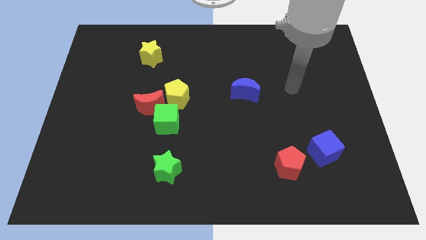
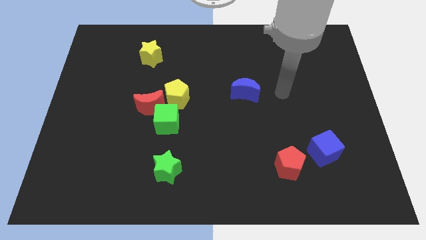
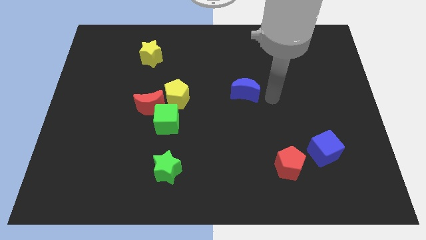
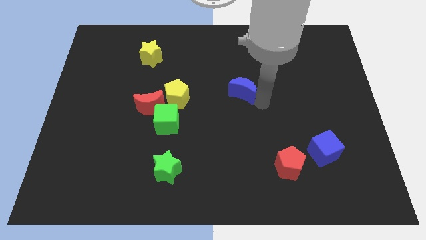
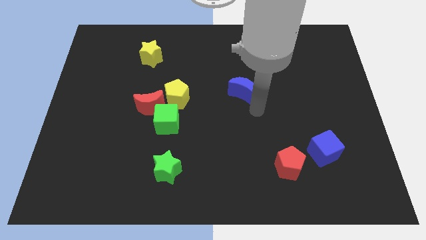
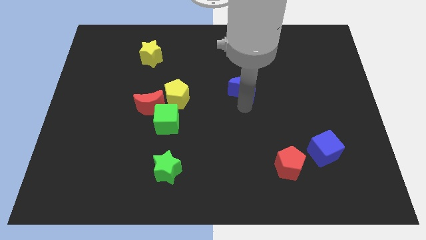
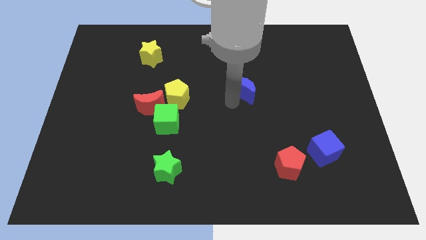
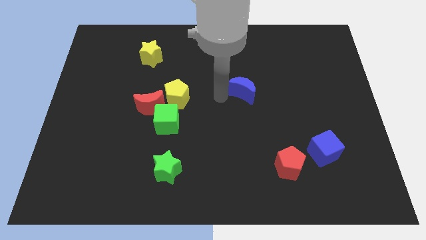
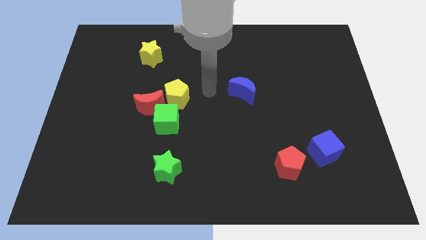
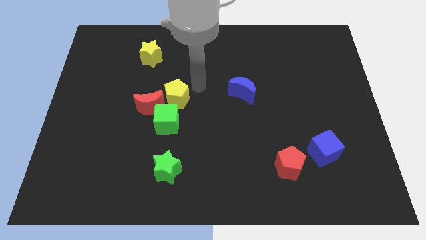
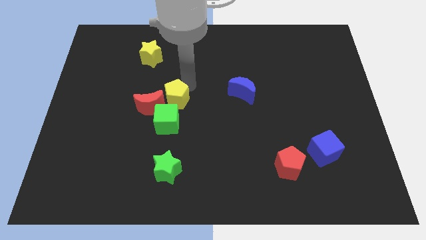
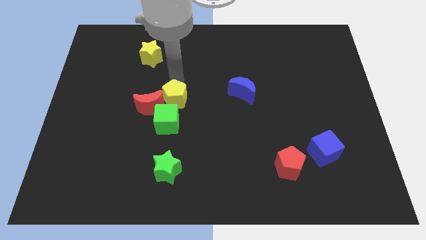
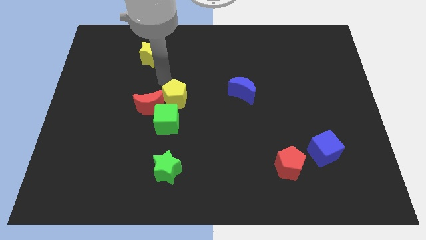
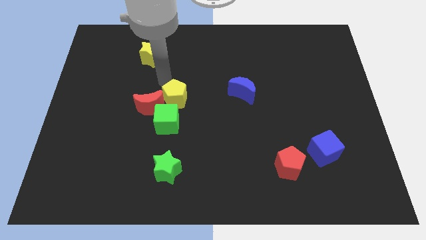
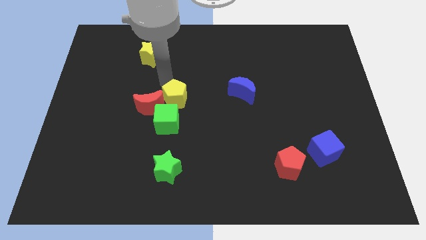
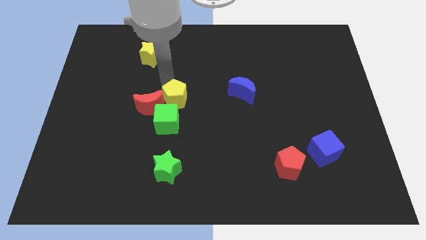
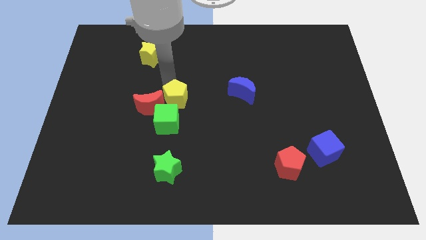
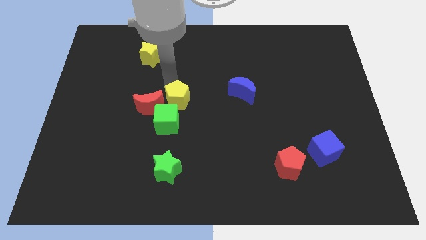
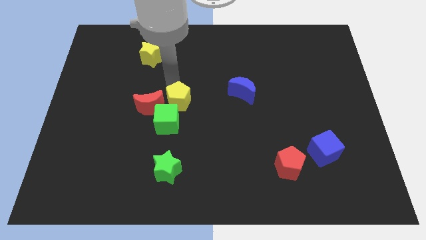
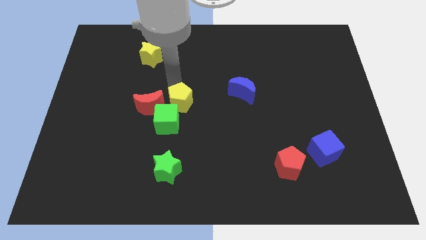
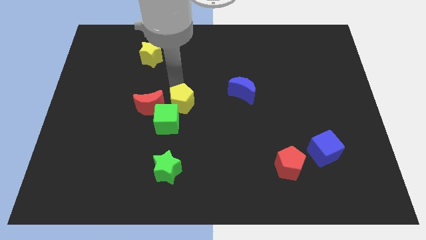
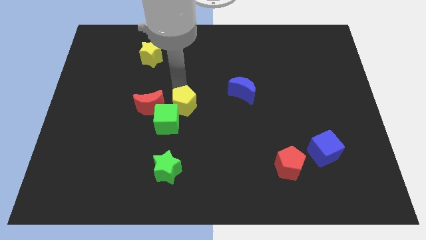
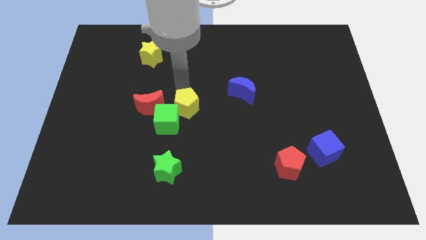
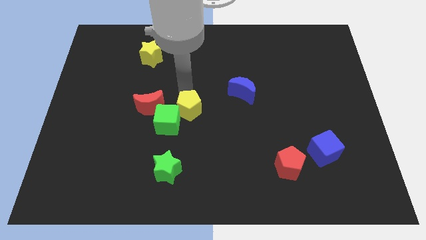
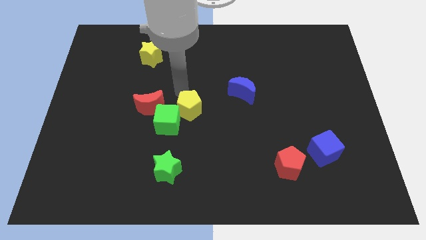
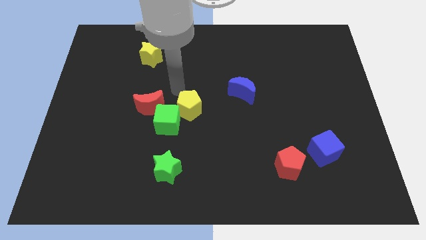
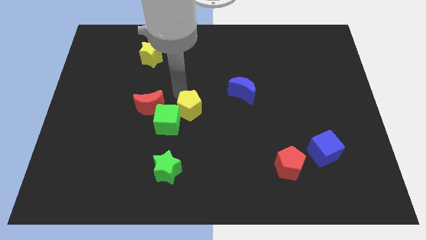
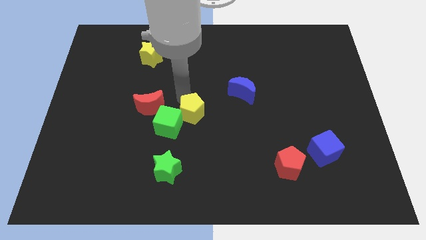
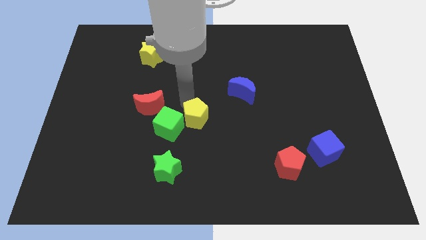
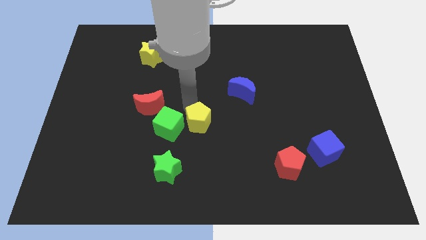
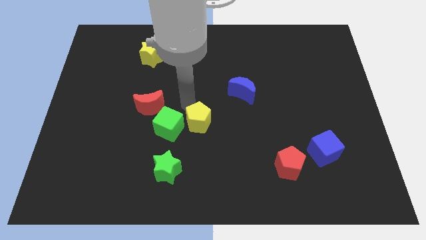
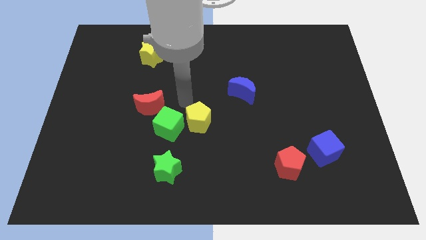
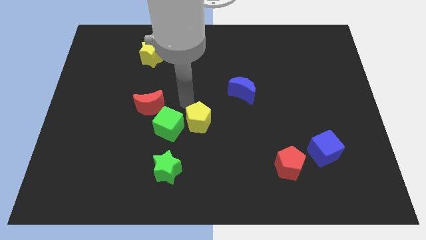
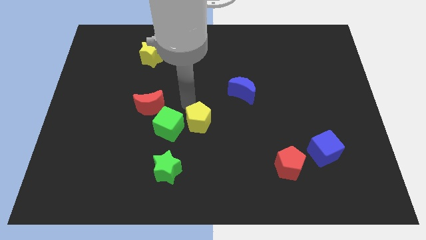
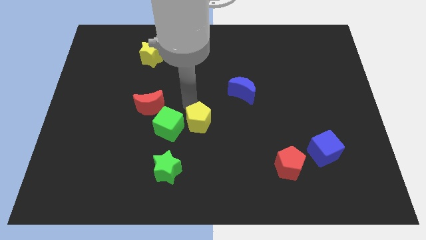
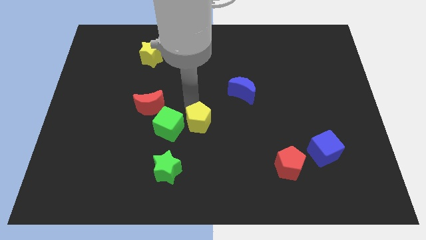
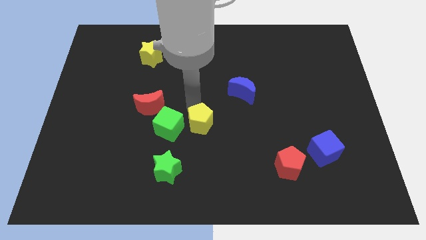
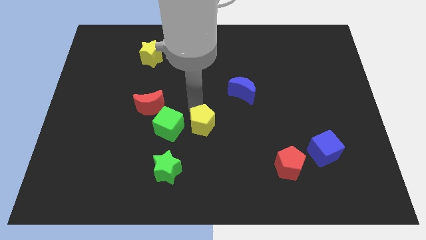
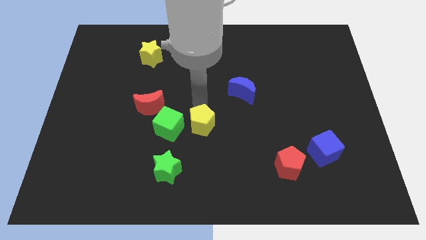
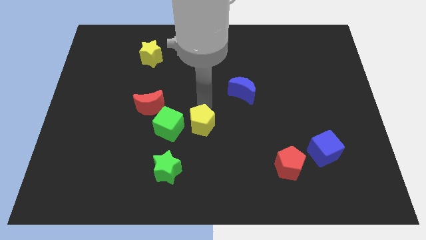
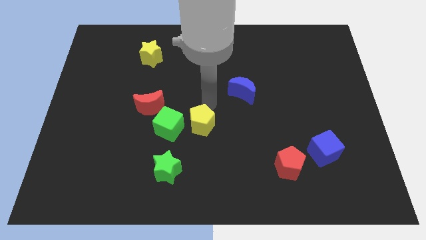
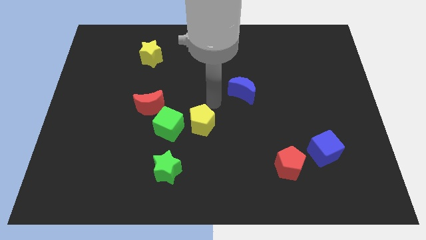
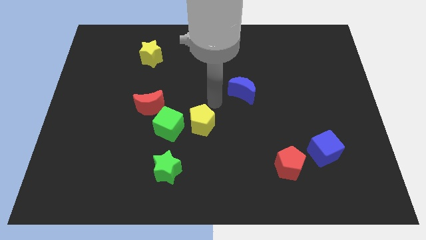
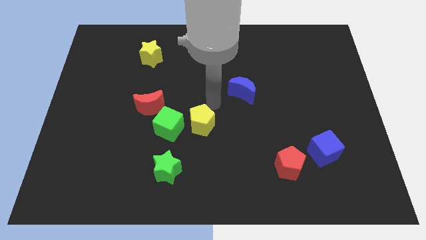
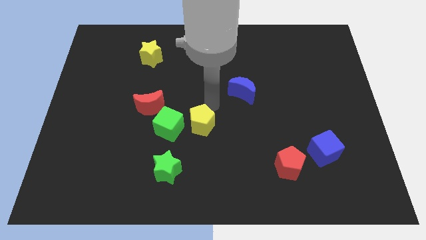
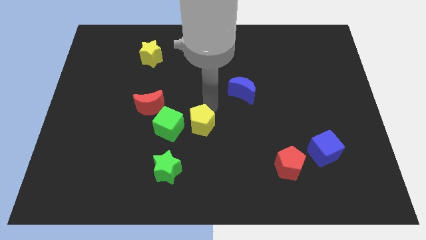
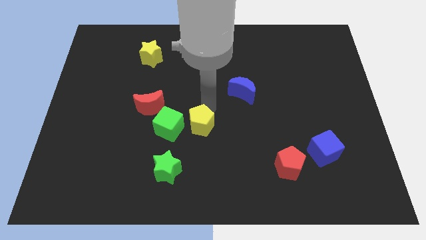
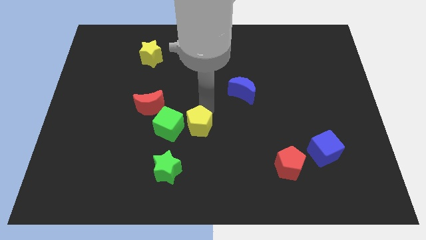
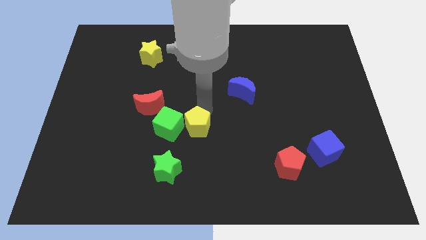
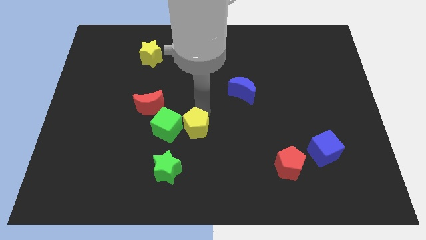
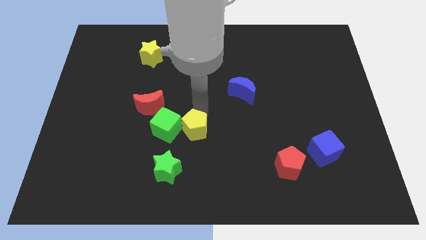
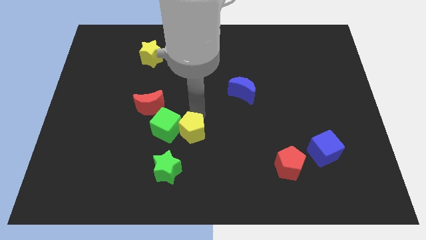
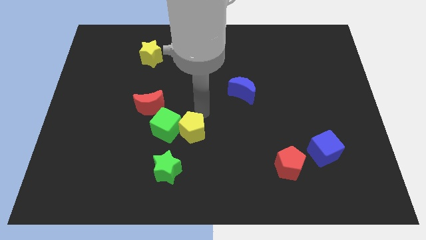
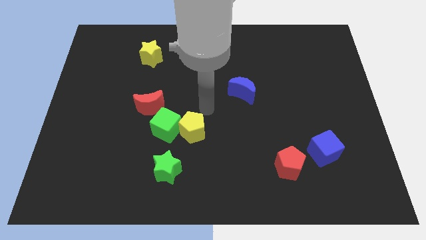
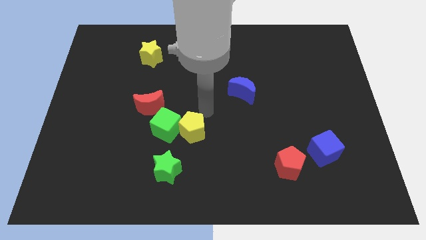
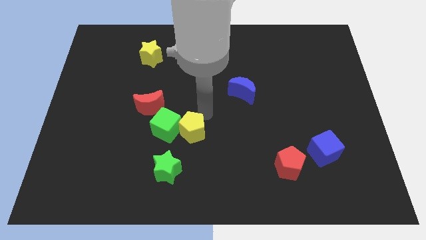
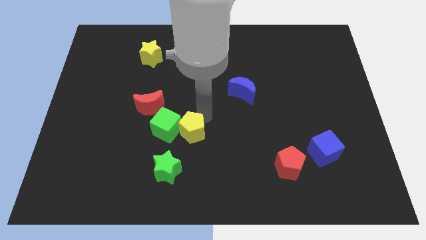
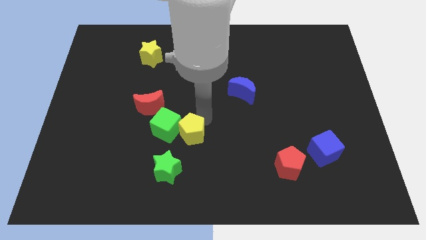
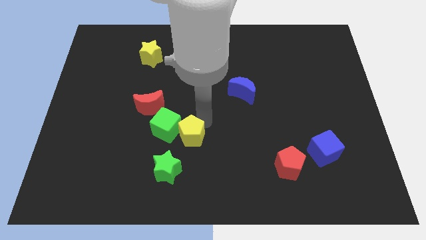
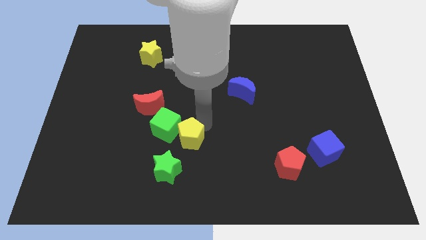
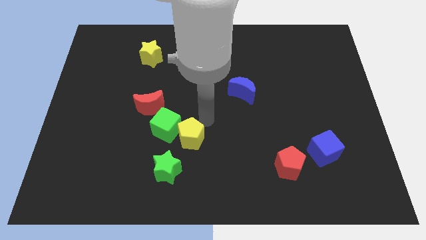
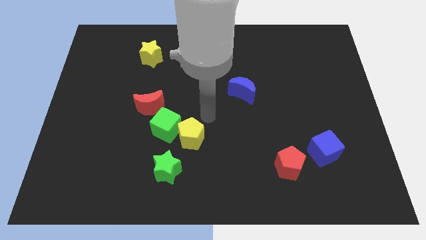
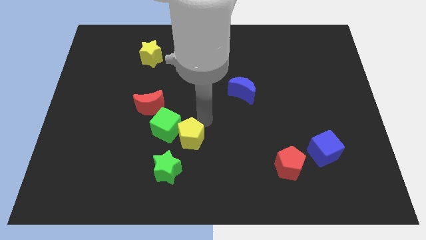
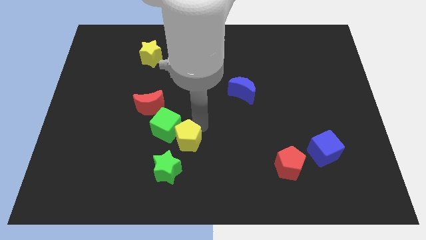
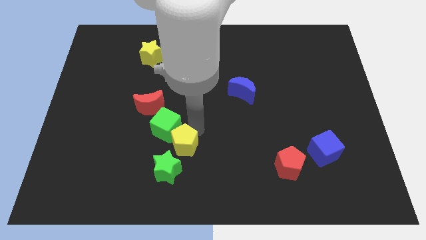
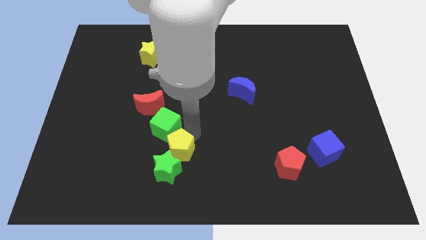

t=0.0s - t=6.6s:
slide the yellow pentagon to the green star
